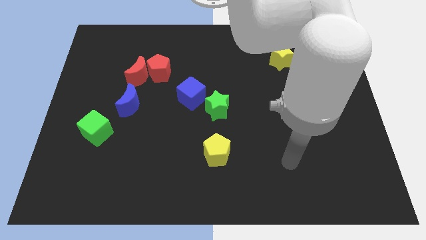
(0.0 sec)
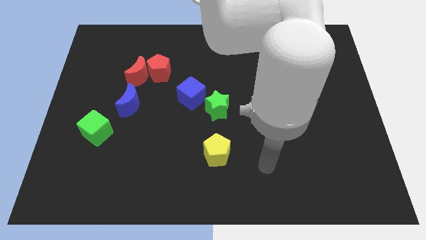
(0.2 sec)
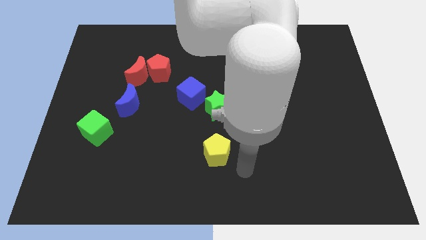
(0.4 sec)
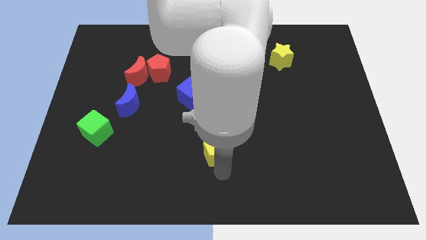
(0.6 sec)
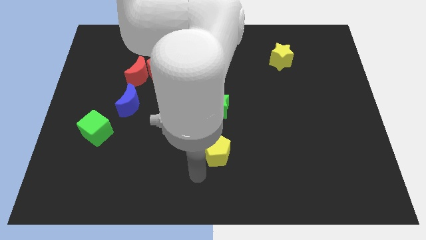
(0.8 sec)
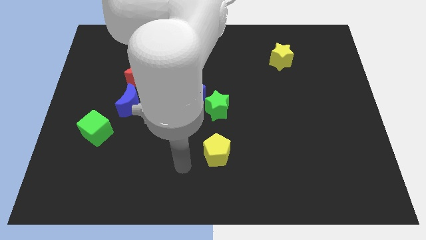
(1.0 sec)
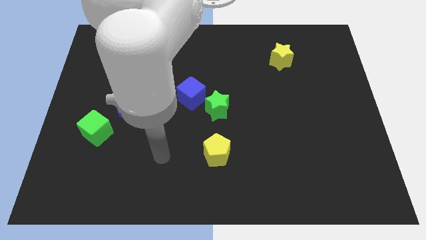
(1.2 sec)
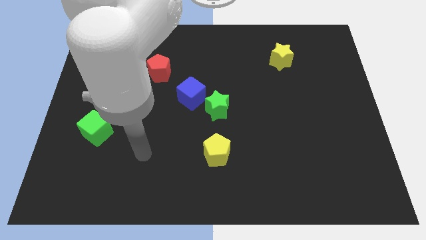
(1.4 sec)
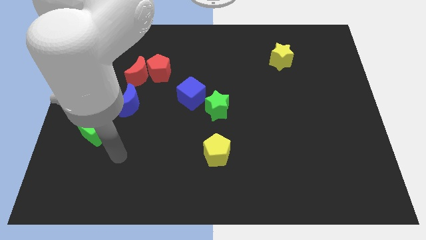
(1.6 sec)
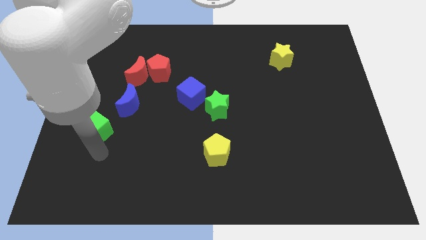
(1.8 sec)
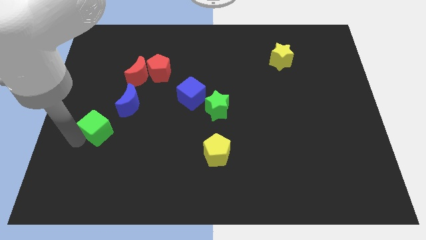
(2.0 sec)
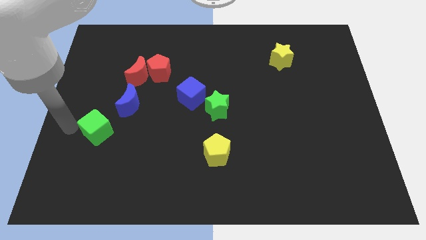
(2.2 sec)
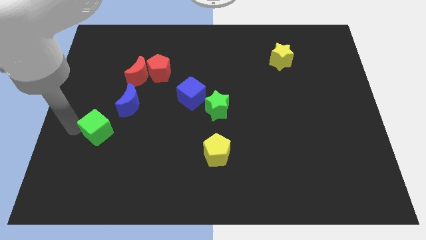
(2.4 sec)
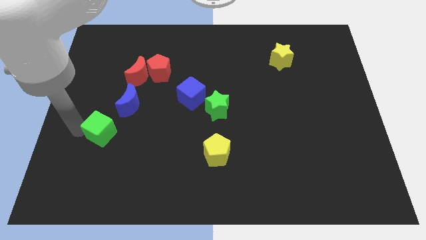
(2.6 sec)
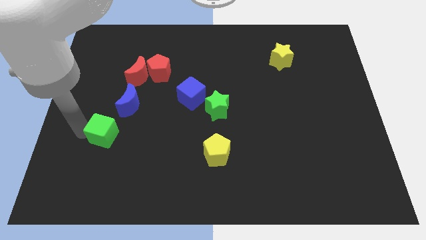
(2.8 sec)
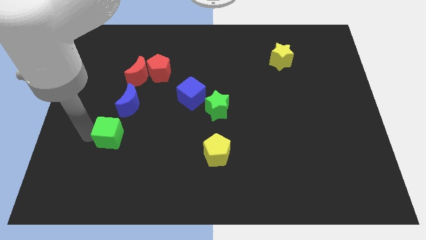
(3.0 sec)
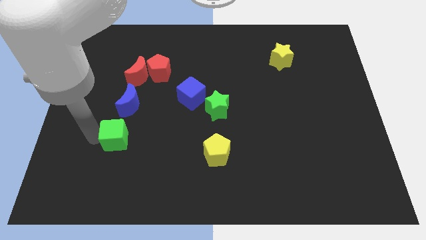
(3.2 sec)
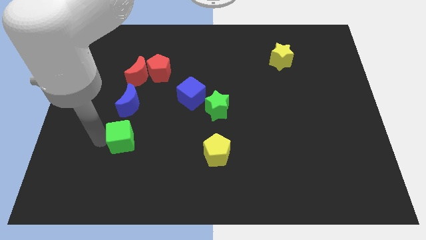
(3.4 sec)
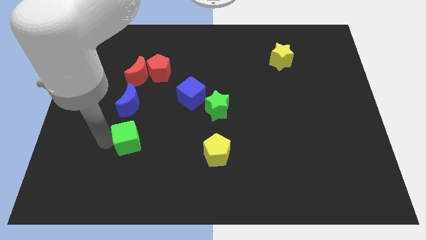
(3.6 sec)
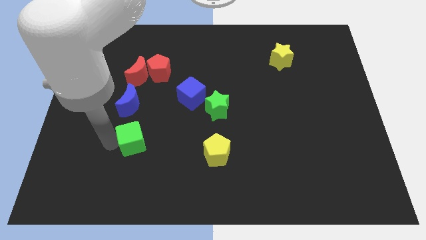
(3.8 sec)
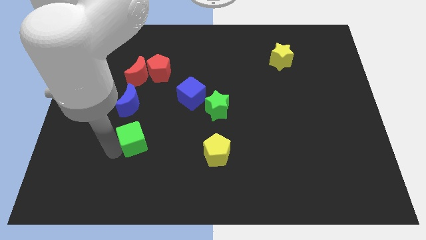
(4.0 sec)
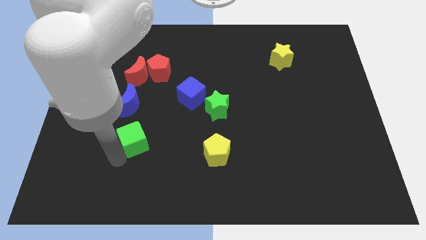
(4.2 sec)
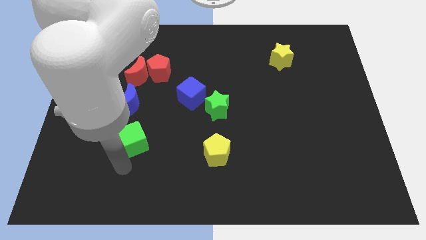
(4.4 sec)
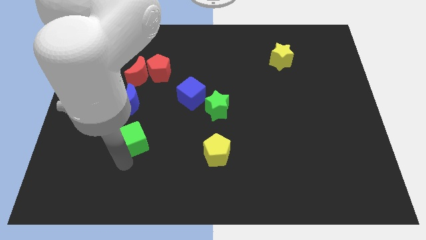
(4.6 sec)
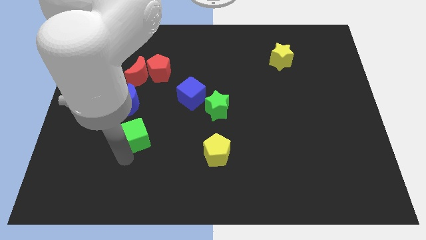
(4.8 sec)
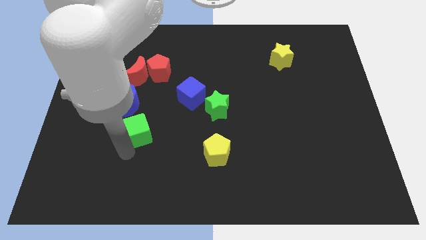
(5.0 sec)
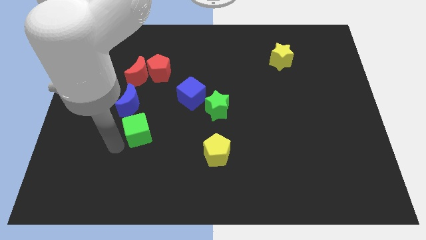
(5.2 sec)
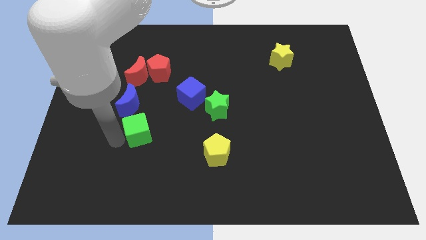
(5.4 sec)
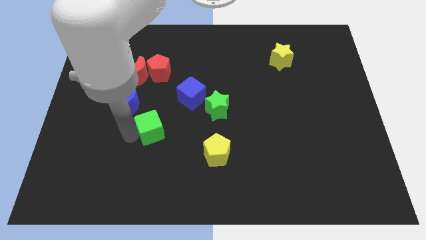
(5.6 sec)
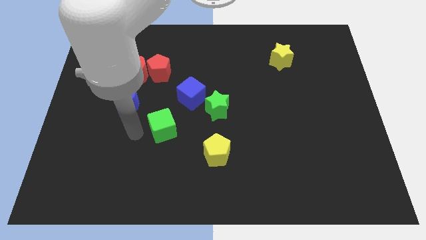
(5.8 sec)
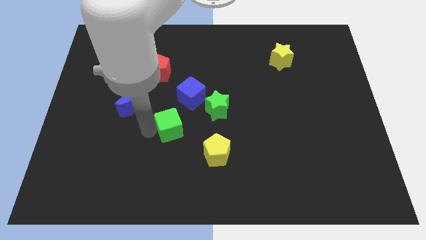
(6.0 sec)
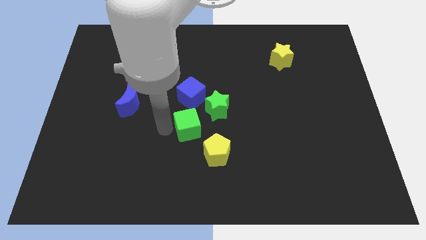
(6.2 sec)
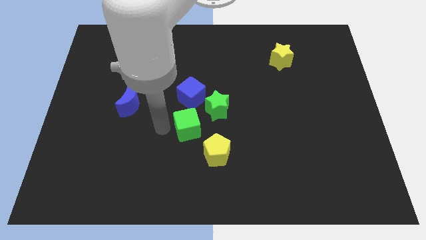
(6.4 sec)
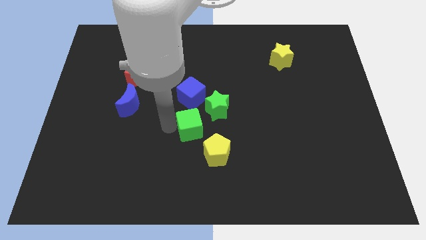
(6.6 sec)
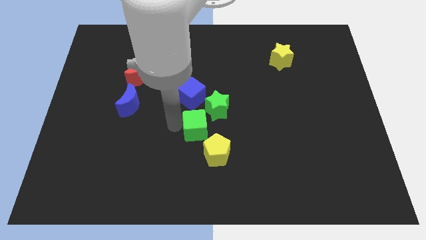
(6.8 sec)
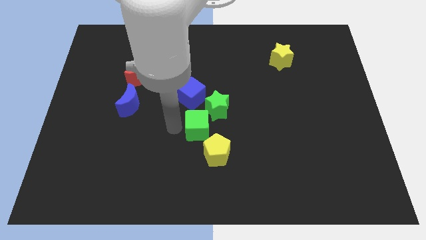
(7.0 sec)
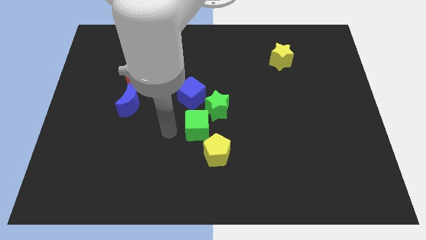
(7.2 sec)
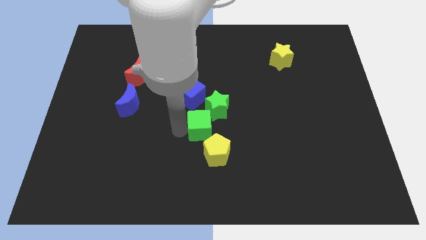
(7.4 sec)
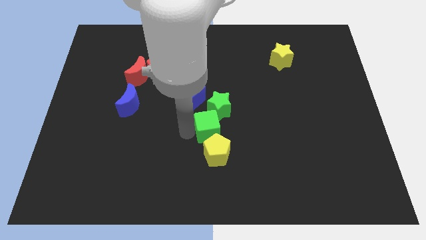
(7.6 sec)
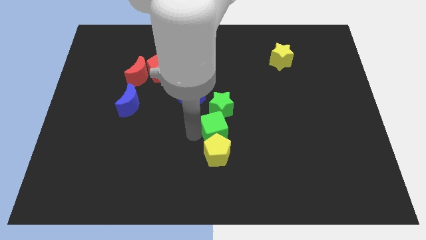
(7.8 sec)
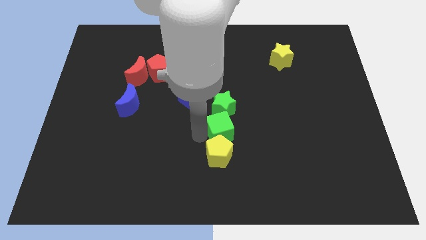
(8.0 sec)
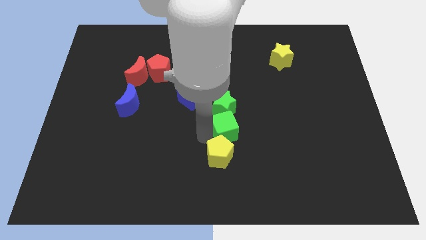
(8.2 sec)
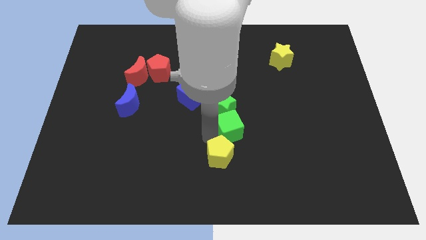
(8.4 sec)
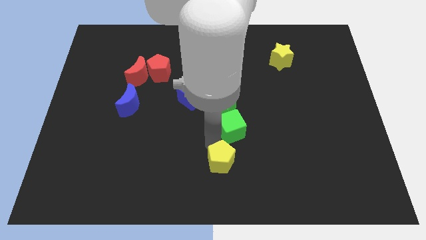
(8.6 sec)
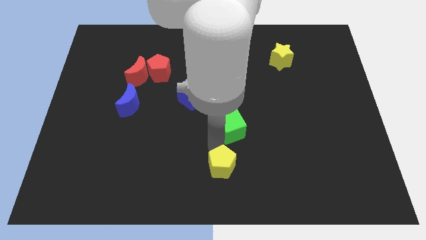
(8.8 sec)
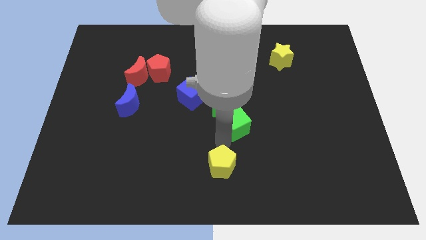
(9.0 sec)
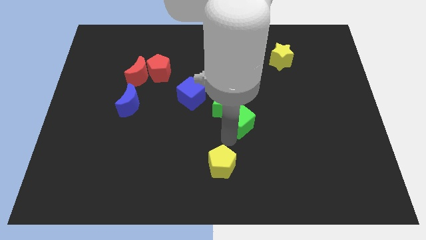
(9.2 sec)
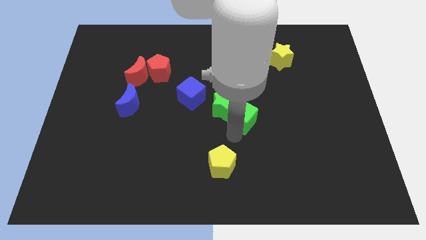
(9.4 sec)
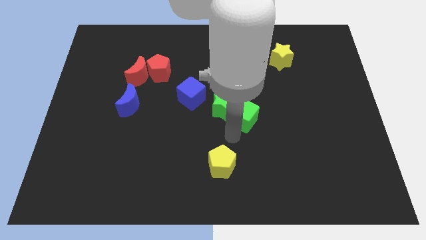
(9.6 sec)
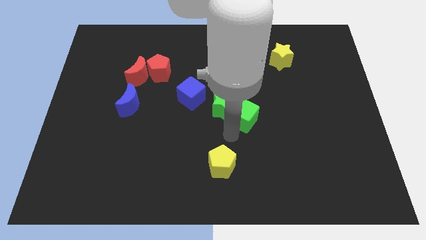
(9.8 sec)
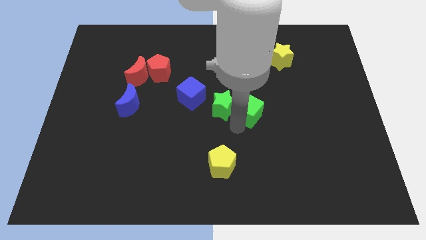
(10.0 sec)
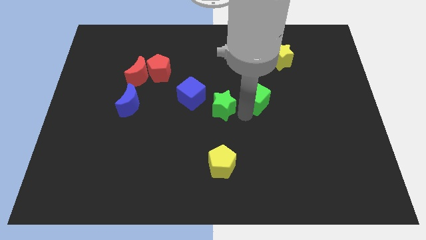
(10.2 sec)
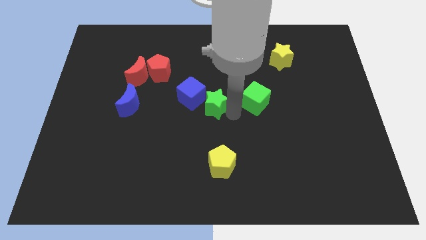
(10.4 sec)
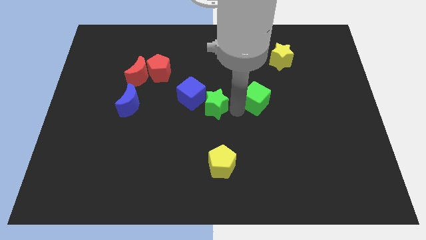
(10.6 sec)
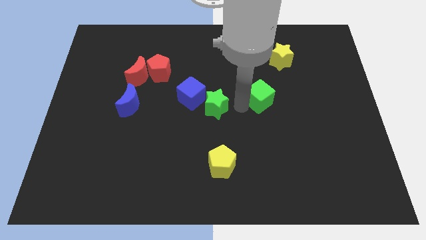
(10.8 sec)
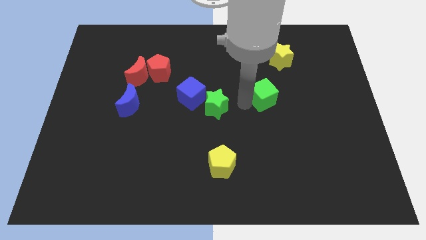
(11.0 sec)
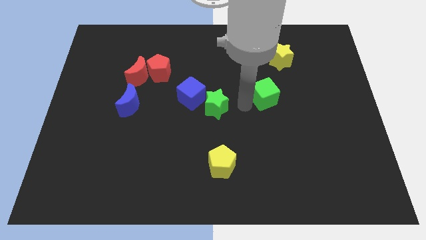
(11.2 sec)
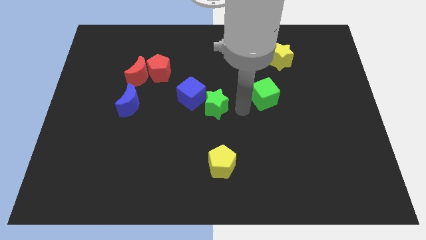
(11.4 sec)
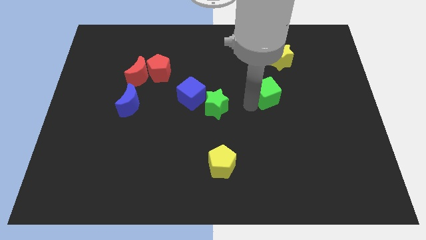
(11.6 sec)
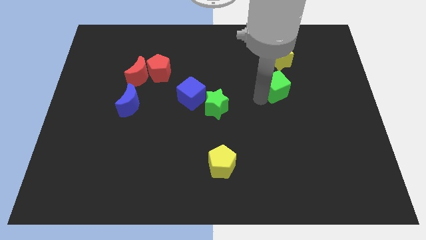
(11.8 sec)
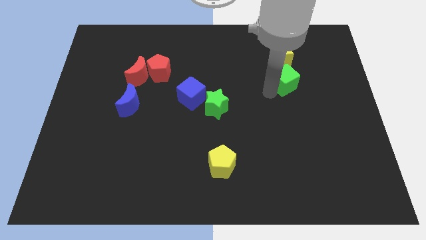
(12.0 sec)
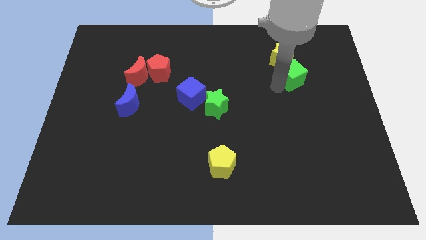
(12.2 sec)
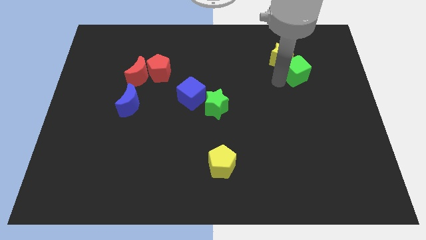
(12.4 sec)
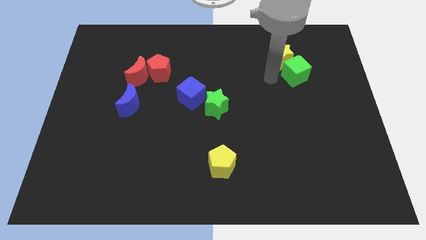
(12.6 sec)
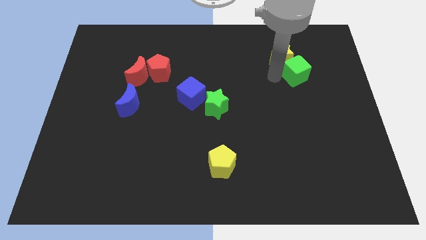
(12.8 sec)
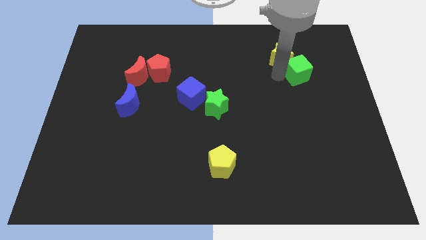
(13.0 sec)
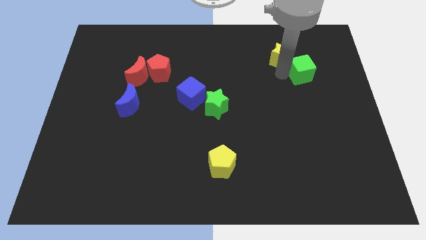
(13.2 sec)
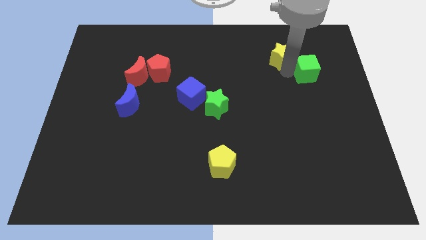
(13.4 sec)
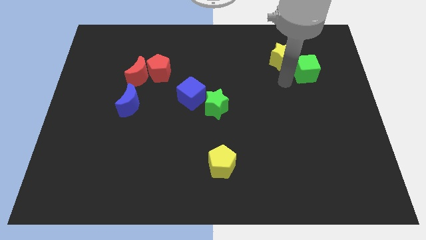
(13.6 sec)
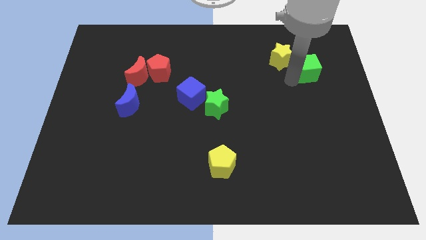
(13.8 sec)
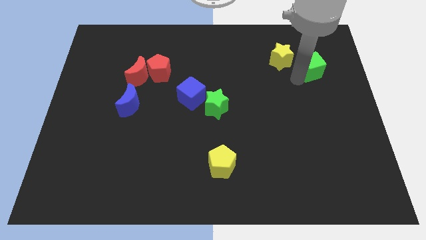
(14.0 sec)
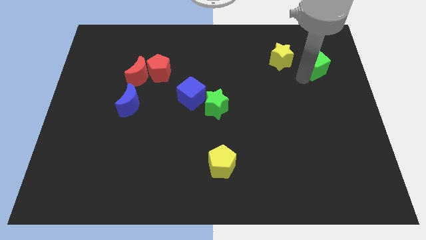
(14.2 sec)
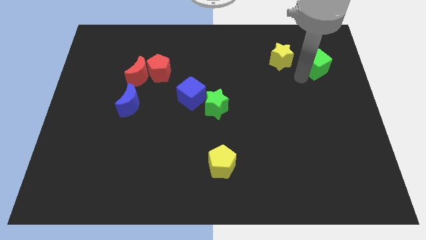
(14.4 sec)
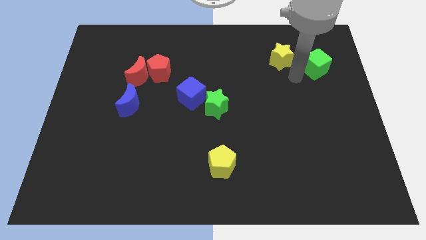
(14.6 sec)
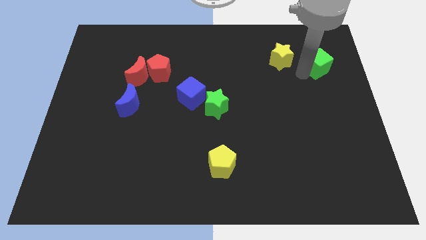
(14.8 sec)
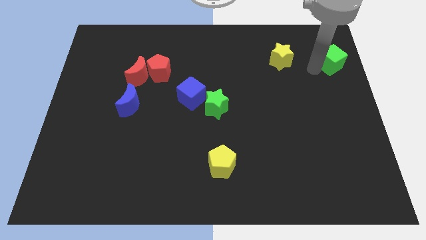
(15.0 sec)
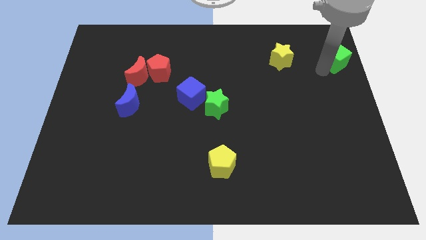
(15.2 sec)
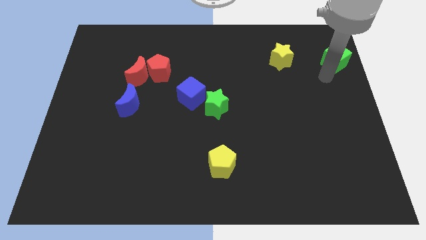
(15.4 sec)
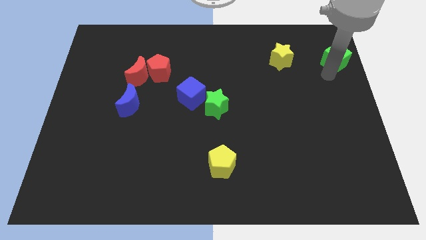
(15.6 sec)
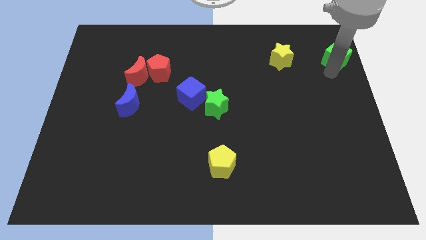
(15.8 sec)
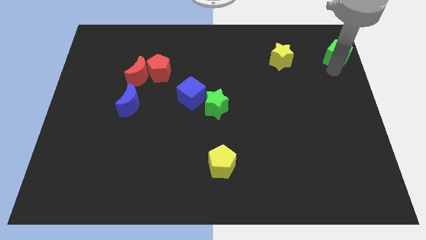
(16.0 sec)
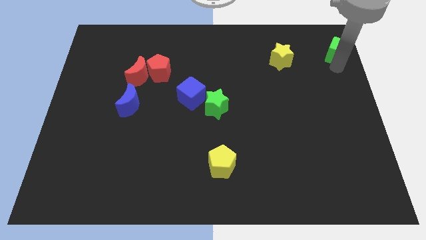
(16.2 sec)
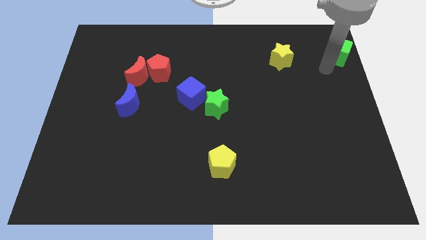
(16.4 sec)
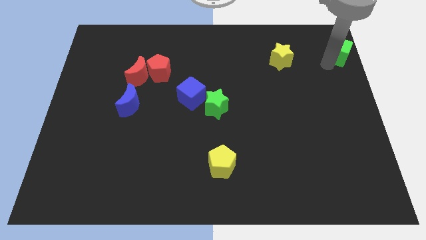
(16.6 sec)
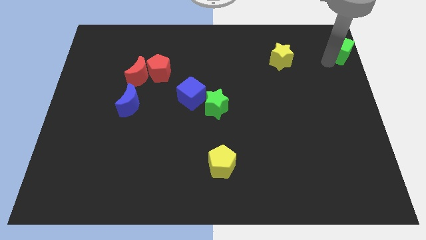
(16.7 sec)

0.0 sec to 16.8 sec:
move the green cube to the top right corner
